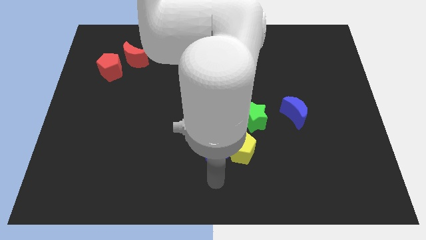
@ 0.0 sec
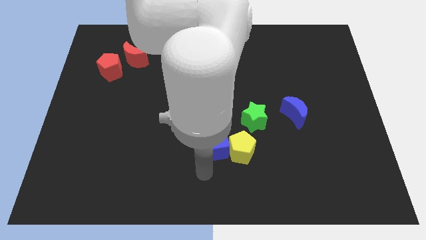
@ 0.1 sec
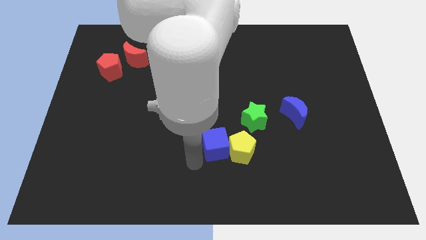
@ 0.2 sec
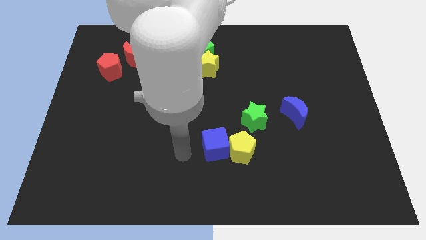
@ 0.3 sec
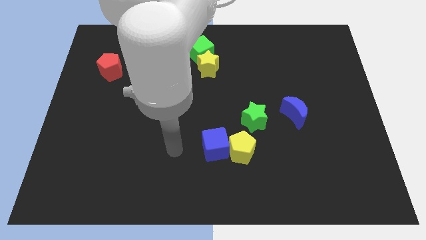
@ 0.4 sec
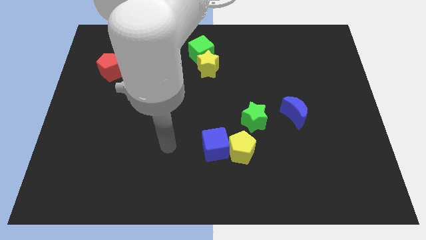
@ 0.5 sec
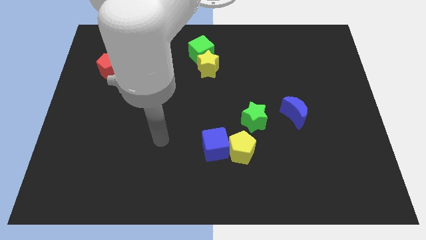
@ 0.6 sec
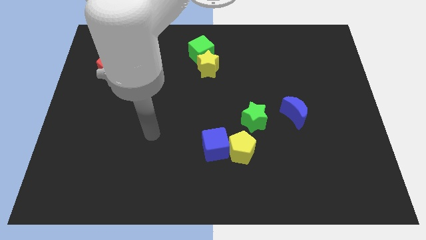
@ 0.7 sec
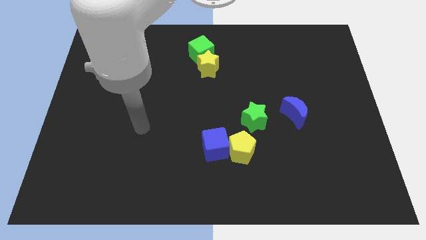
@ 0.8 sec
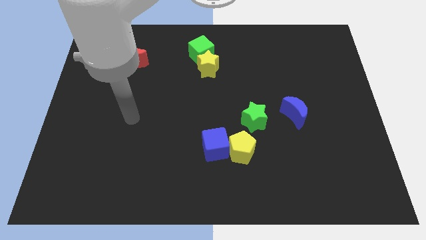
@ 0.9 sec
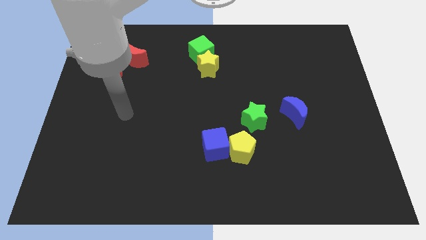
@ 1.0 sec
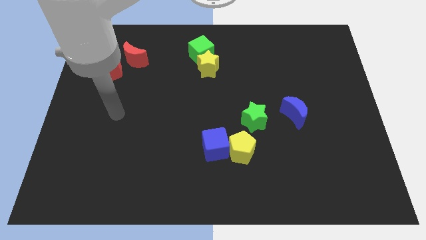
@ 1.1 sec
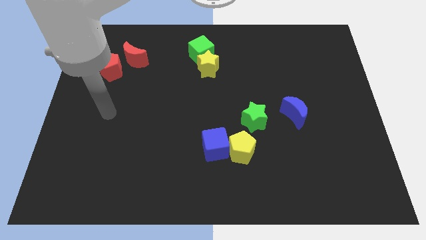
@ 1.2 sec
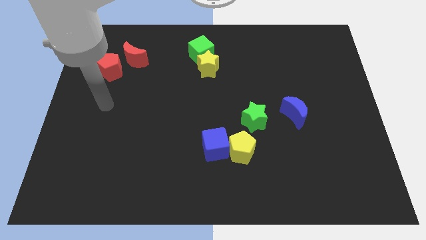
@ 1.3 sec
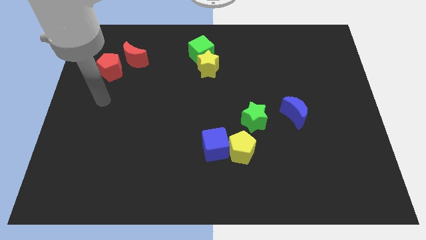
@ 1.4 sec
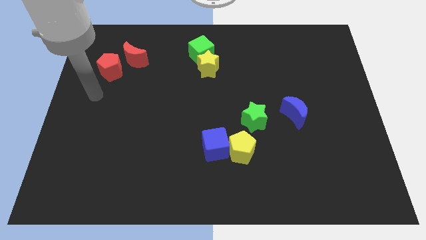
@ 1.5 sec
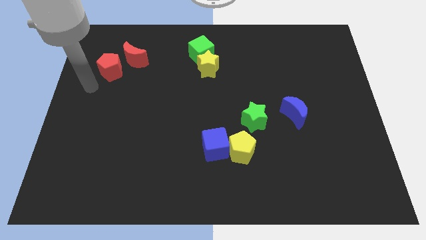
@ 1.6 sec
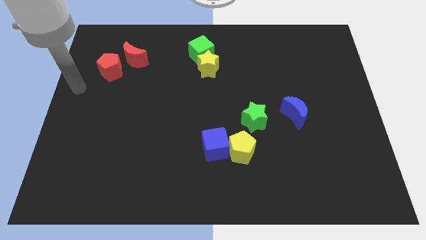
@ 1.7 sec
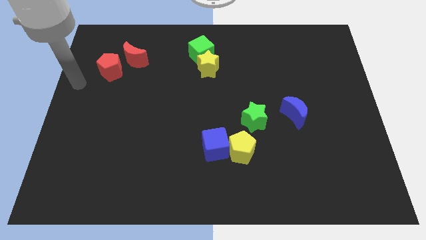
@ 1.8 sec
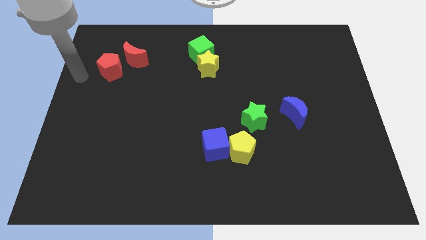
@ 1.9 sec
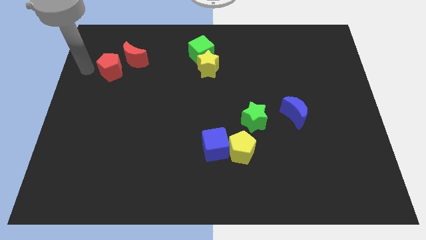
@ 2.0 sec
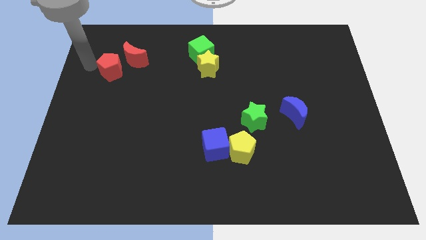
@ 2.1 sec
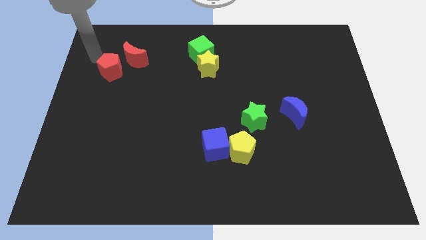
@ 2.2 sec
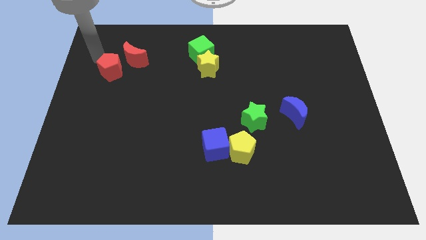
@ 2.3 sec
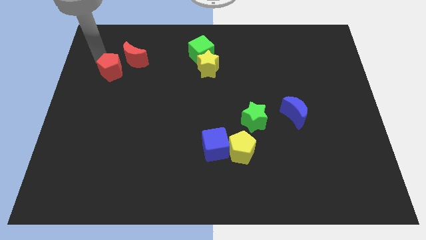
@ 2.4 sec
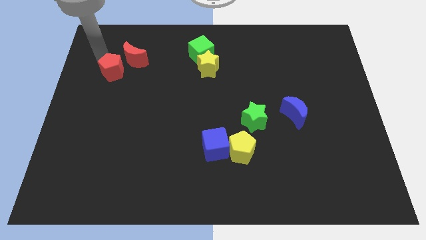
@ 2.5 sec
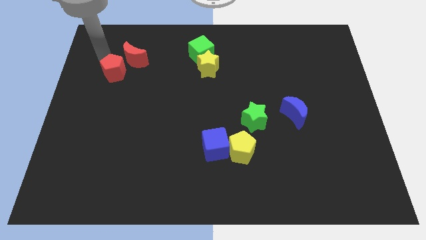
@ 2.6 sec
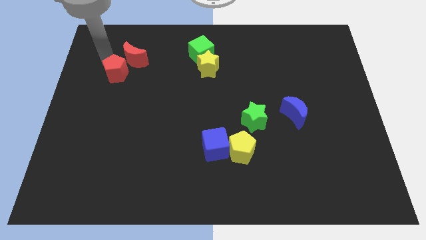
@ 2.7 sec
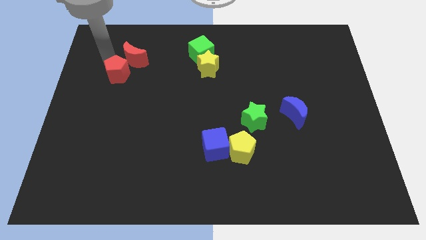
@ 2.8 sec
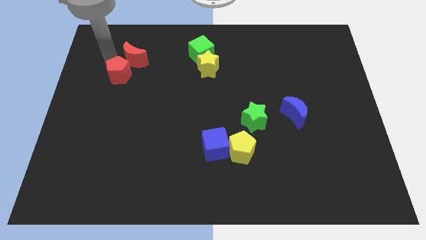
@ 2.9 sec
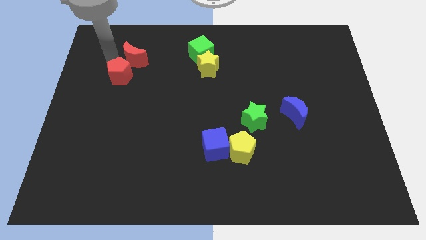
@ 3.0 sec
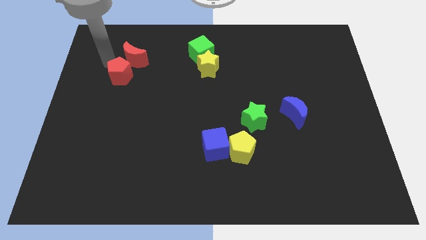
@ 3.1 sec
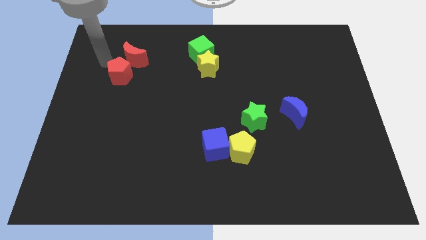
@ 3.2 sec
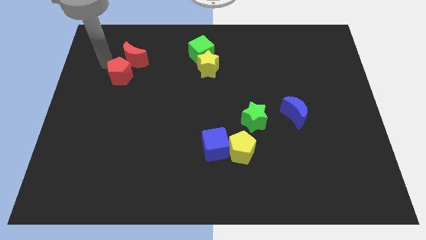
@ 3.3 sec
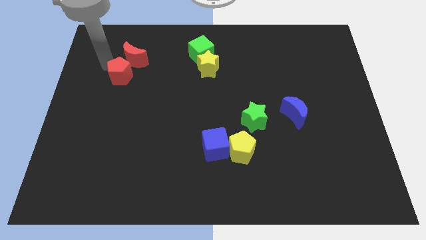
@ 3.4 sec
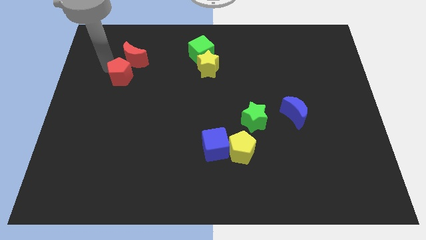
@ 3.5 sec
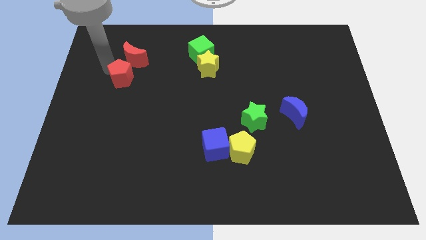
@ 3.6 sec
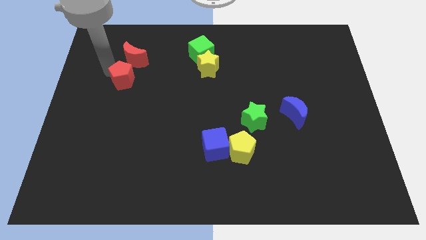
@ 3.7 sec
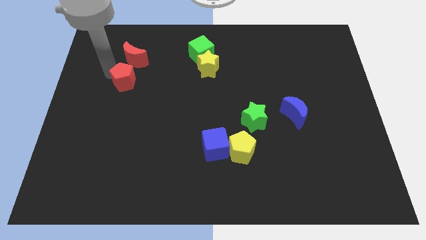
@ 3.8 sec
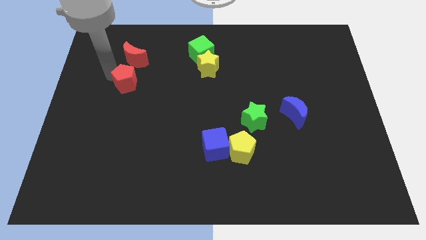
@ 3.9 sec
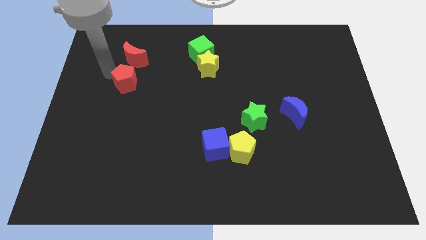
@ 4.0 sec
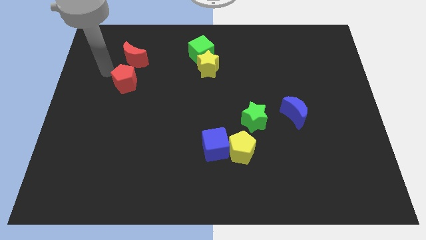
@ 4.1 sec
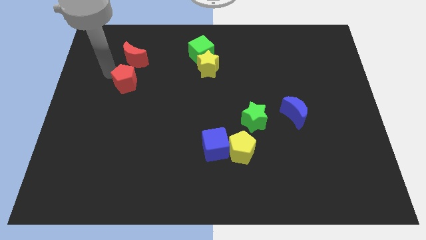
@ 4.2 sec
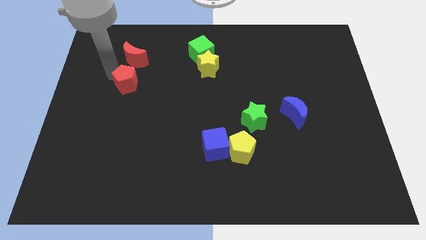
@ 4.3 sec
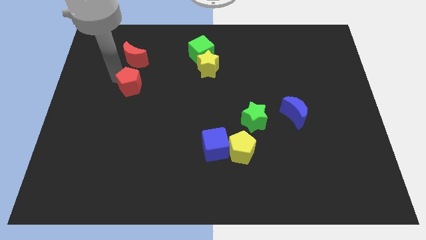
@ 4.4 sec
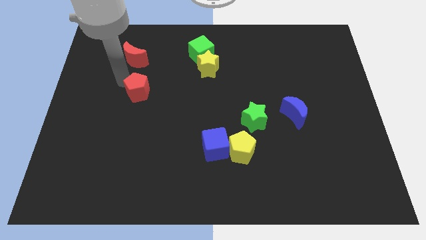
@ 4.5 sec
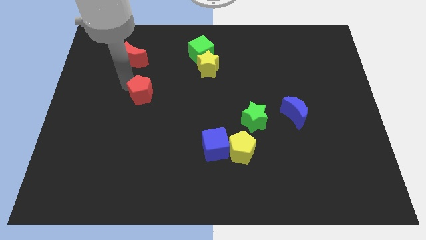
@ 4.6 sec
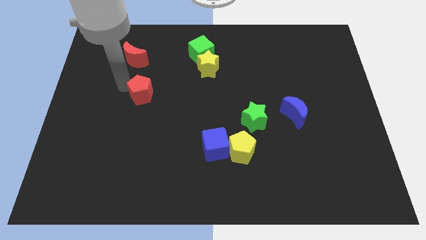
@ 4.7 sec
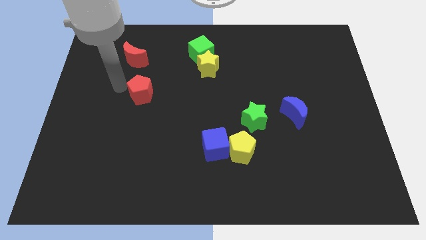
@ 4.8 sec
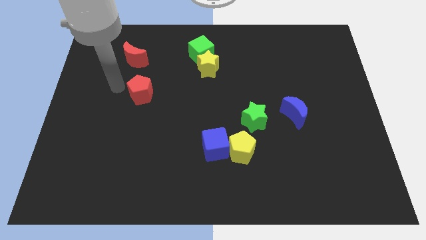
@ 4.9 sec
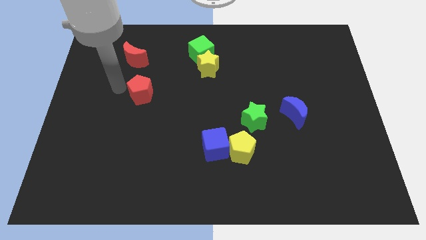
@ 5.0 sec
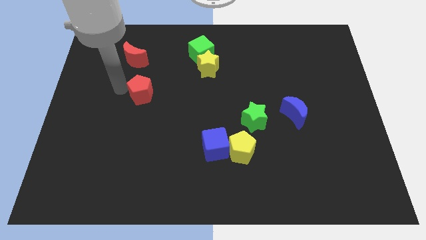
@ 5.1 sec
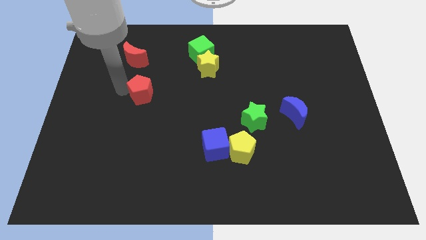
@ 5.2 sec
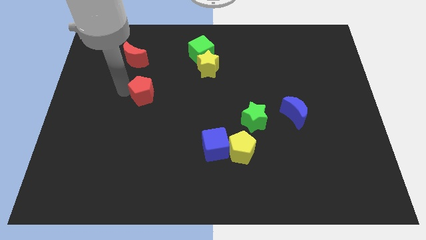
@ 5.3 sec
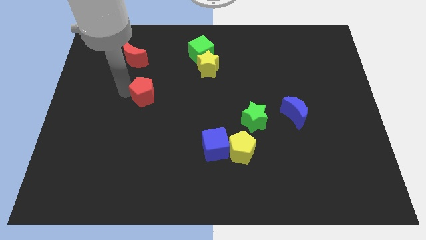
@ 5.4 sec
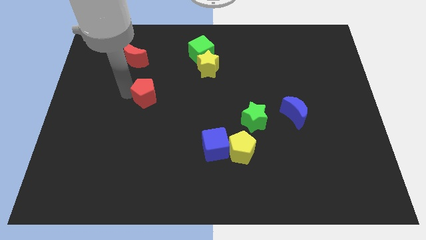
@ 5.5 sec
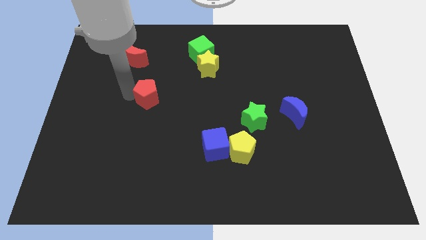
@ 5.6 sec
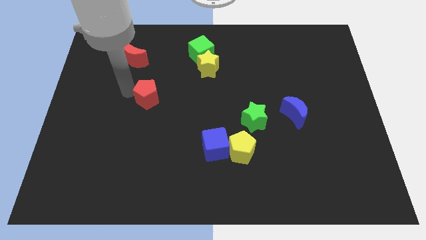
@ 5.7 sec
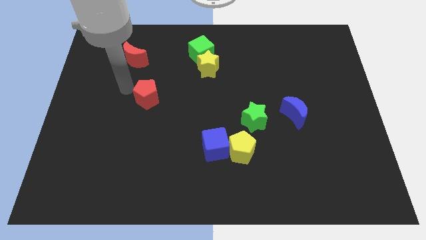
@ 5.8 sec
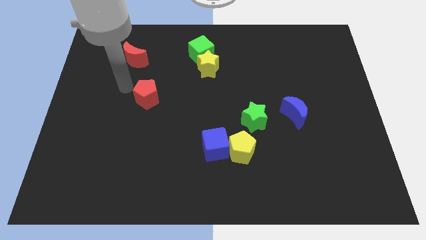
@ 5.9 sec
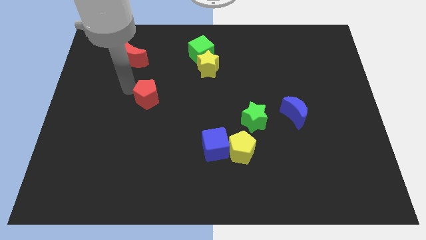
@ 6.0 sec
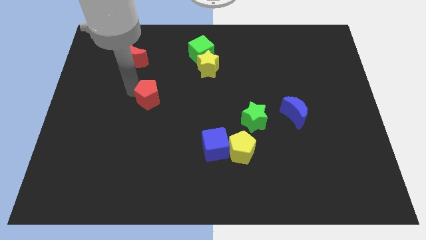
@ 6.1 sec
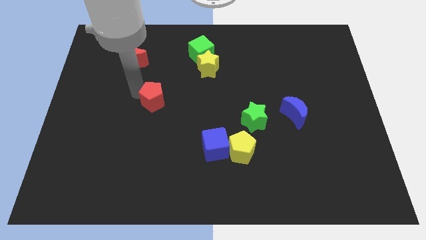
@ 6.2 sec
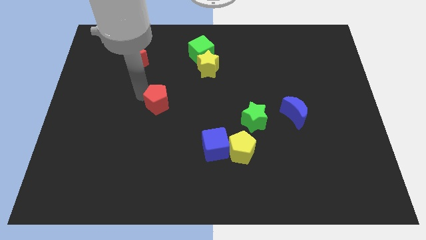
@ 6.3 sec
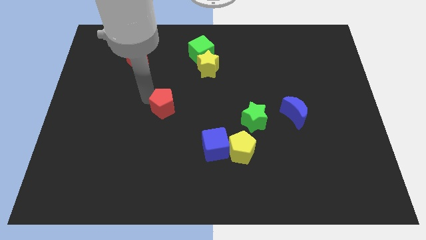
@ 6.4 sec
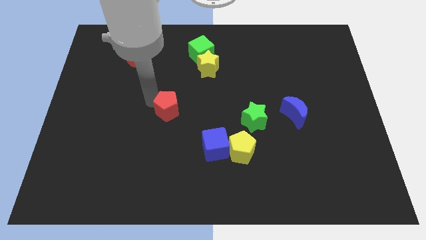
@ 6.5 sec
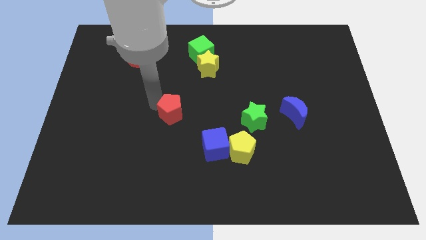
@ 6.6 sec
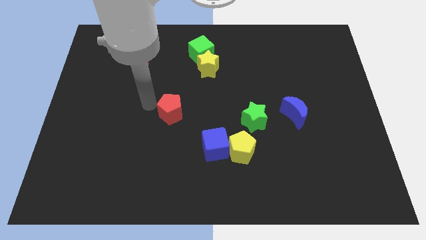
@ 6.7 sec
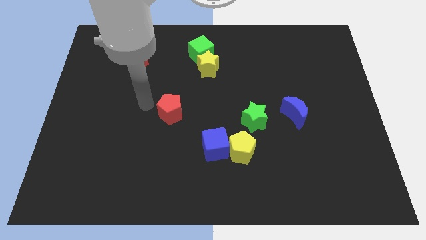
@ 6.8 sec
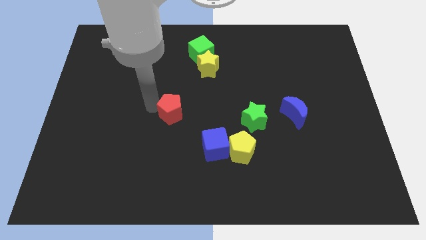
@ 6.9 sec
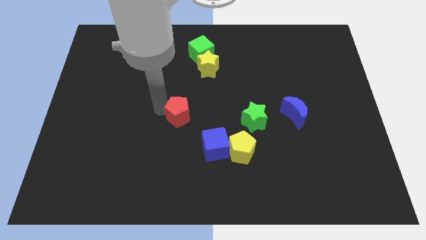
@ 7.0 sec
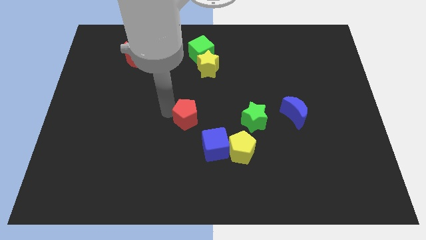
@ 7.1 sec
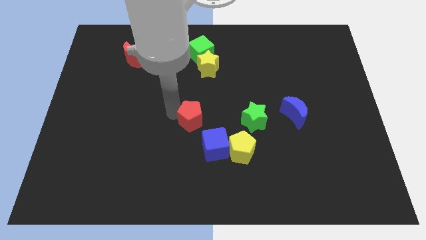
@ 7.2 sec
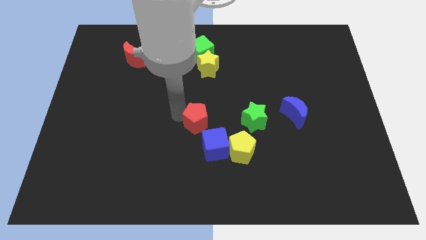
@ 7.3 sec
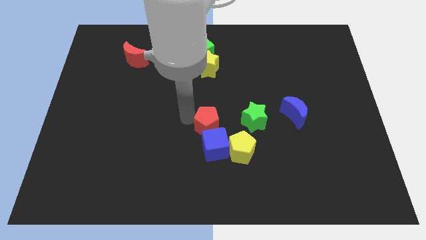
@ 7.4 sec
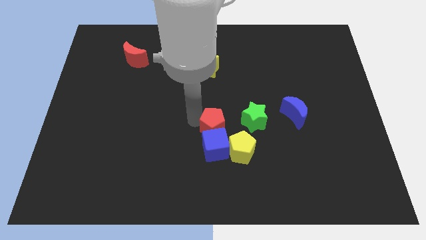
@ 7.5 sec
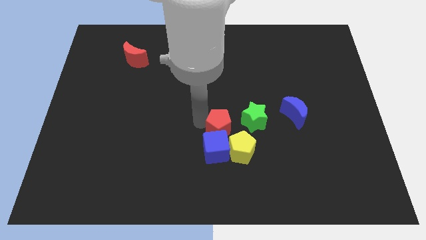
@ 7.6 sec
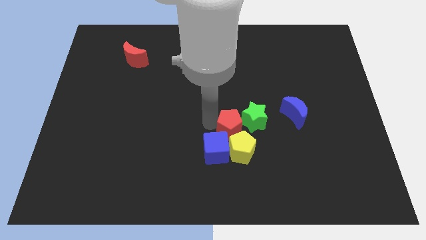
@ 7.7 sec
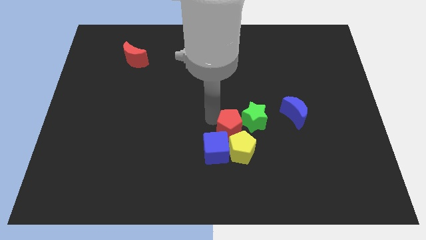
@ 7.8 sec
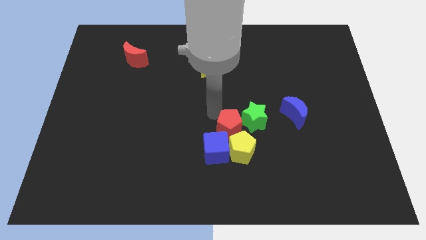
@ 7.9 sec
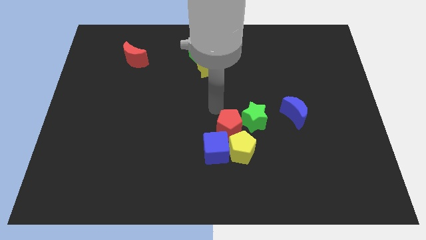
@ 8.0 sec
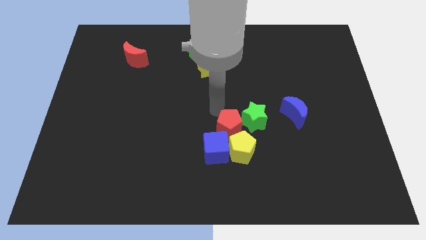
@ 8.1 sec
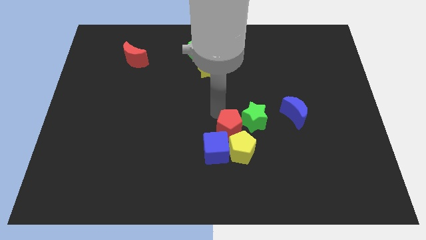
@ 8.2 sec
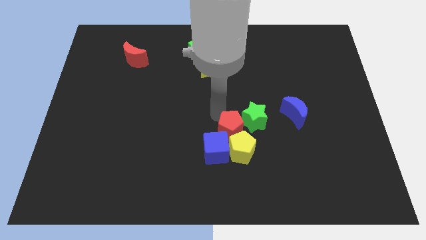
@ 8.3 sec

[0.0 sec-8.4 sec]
put the red pentagon towards the yellow pentagon

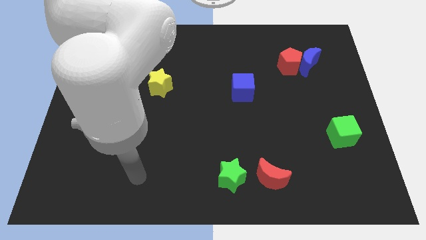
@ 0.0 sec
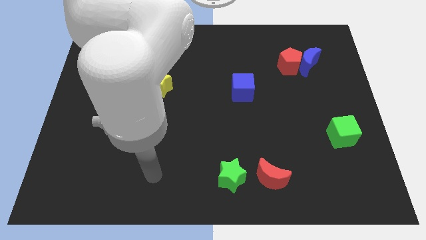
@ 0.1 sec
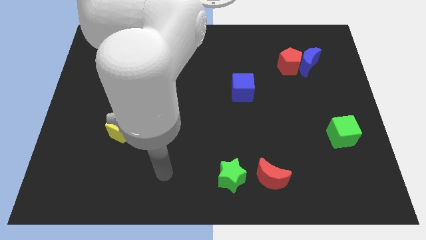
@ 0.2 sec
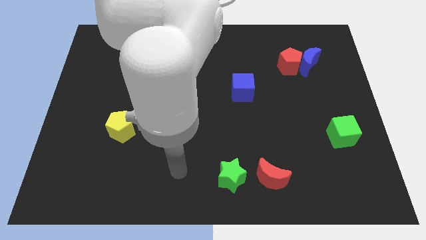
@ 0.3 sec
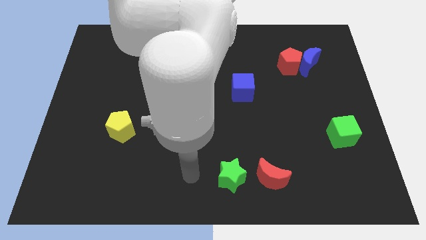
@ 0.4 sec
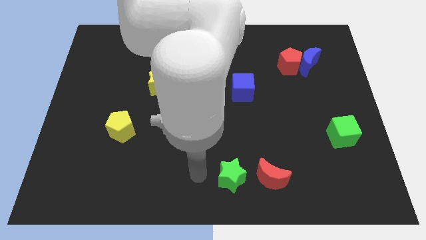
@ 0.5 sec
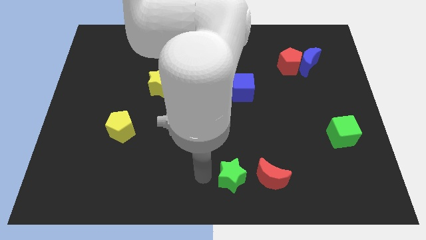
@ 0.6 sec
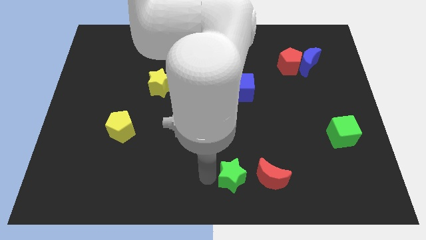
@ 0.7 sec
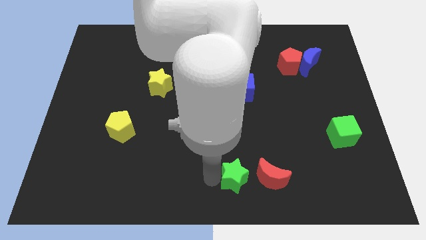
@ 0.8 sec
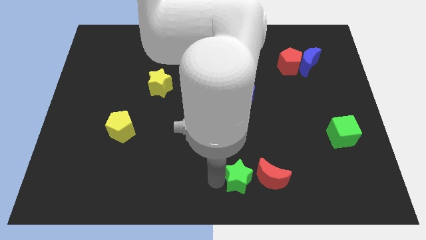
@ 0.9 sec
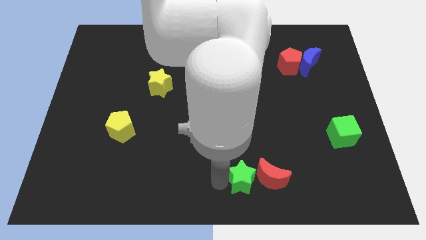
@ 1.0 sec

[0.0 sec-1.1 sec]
move the green star towards the red moon
